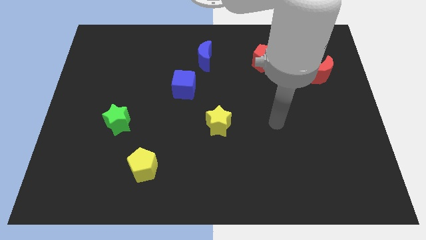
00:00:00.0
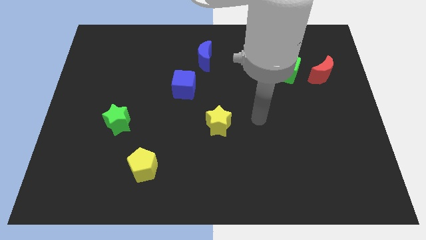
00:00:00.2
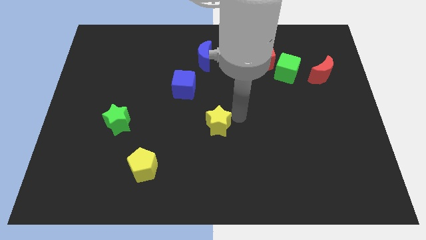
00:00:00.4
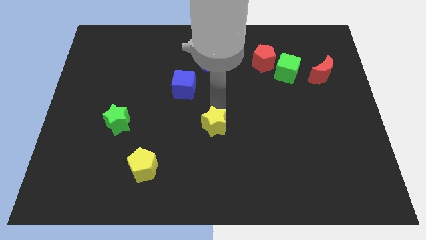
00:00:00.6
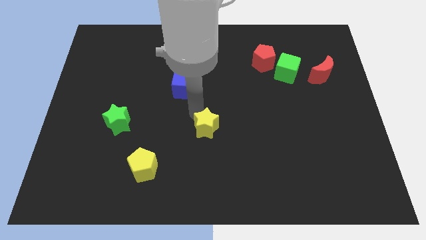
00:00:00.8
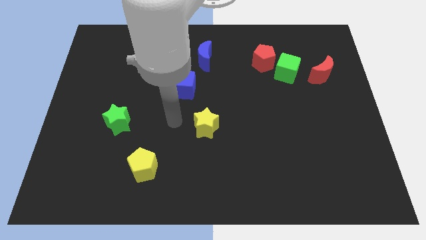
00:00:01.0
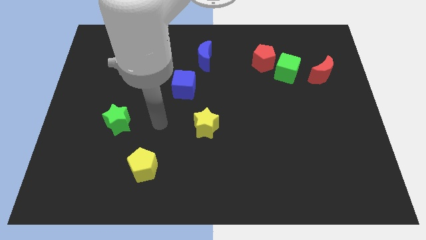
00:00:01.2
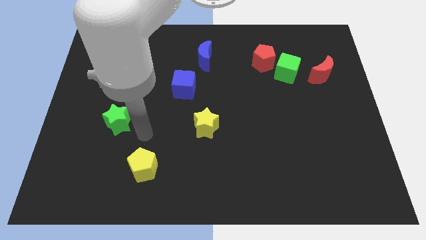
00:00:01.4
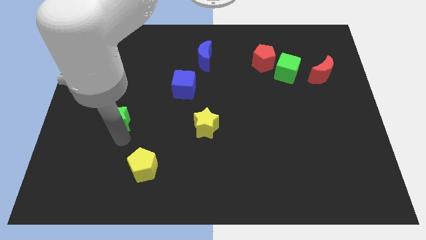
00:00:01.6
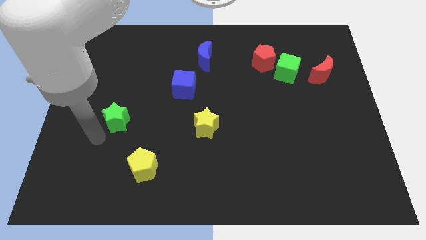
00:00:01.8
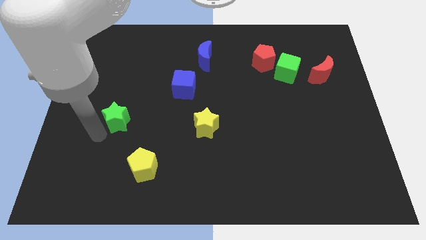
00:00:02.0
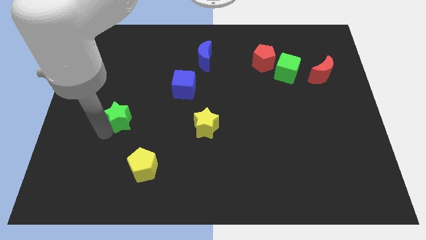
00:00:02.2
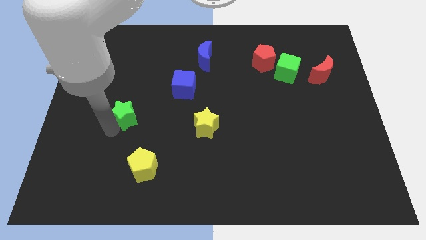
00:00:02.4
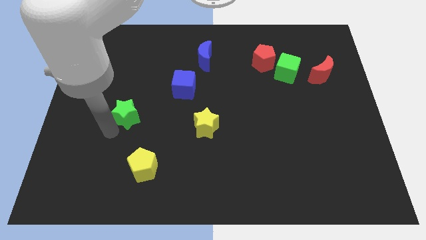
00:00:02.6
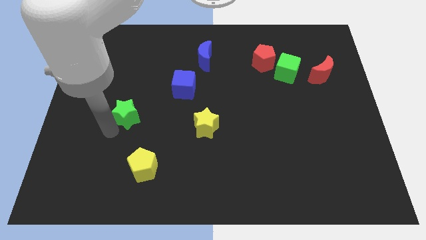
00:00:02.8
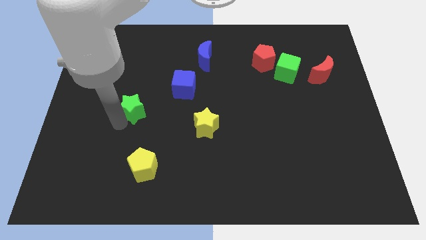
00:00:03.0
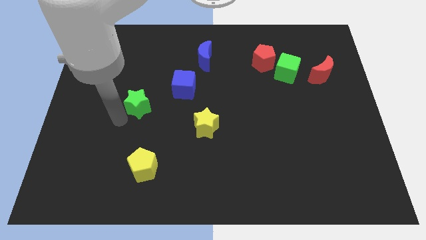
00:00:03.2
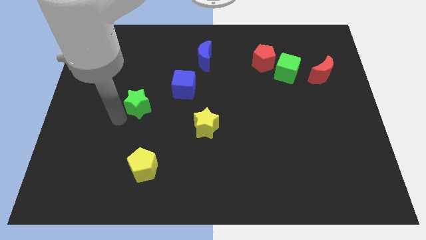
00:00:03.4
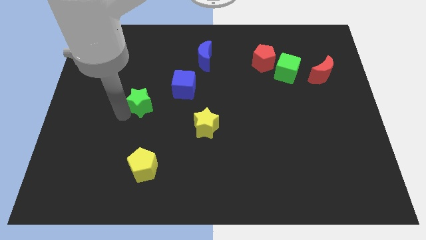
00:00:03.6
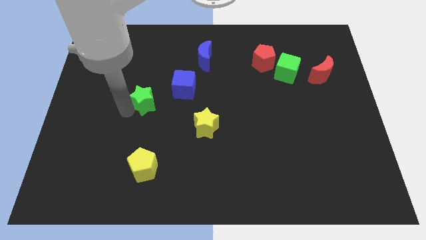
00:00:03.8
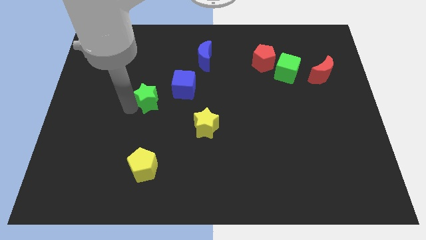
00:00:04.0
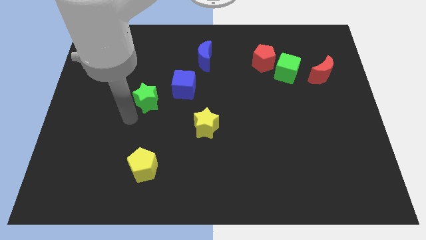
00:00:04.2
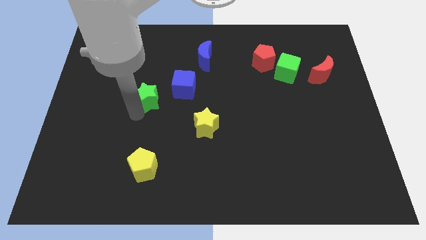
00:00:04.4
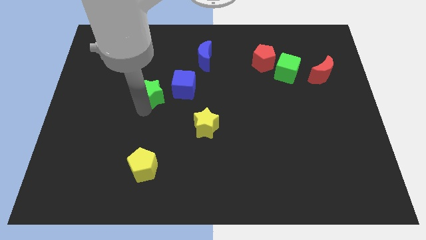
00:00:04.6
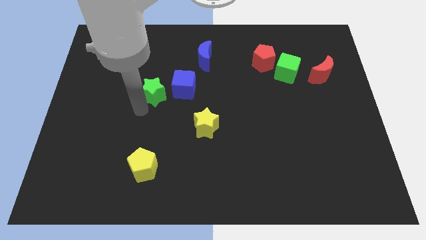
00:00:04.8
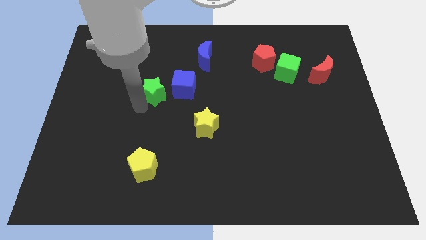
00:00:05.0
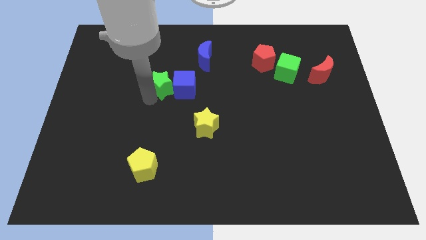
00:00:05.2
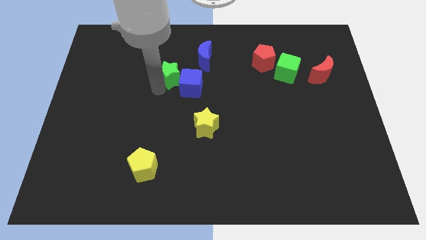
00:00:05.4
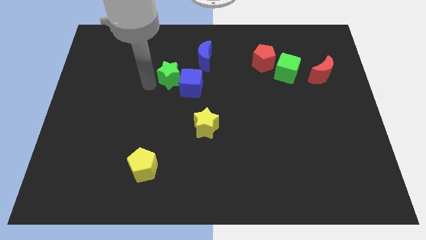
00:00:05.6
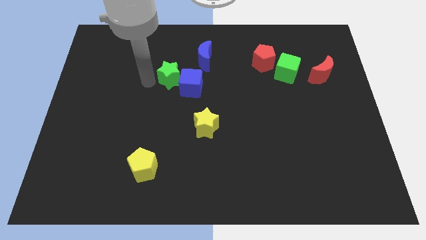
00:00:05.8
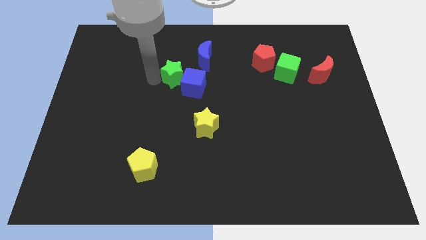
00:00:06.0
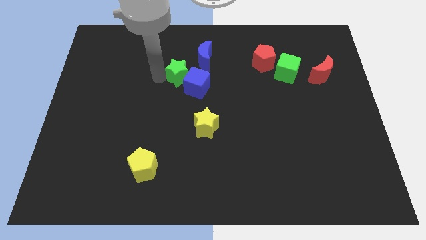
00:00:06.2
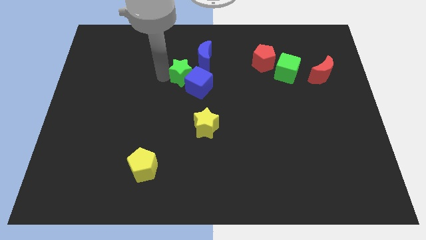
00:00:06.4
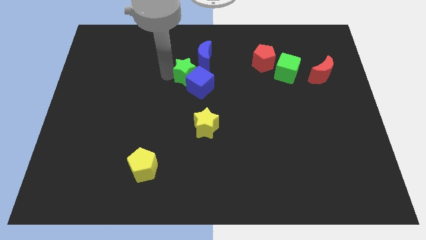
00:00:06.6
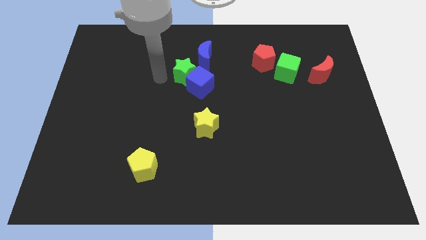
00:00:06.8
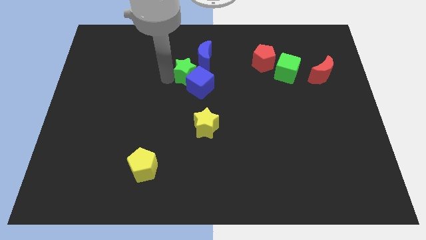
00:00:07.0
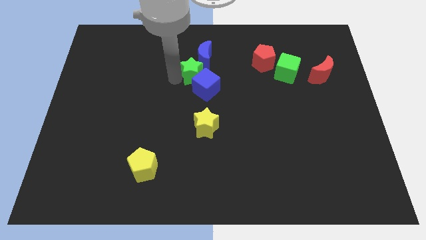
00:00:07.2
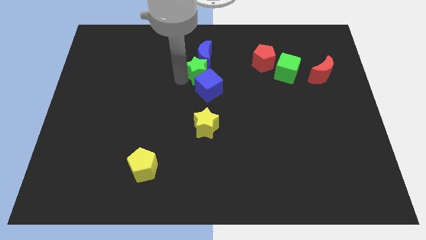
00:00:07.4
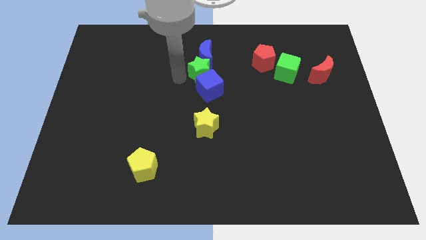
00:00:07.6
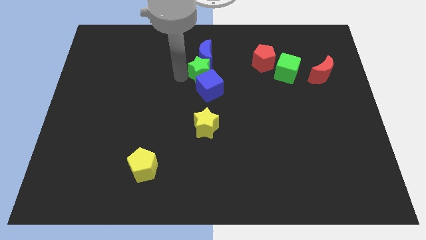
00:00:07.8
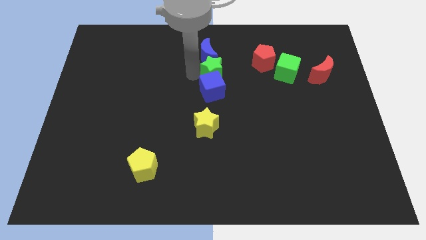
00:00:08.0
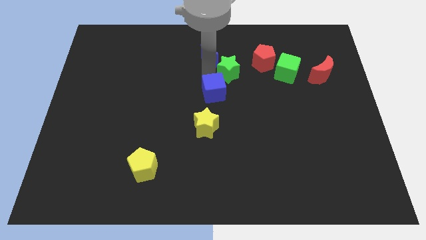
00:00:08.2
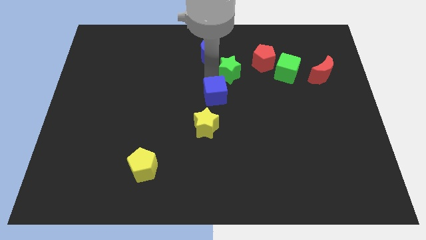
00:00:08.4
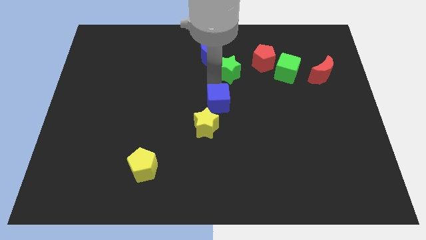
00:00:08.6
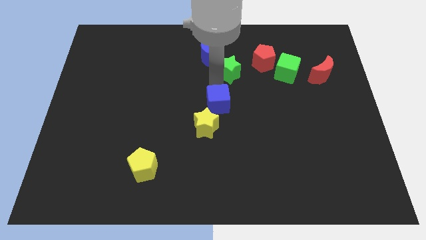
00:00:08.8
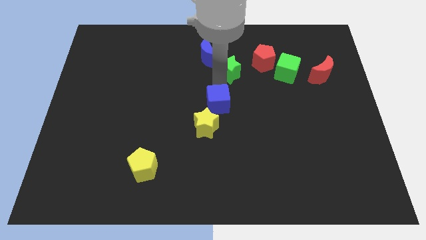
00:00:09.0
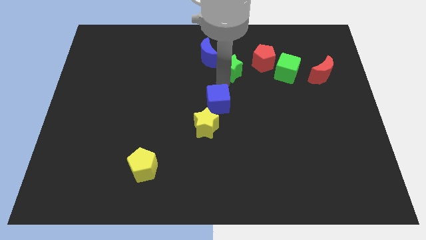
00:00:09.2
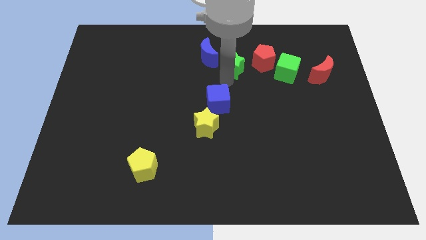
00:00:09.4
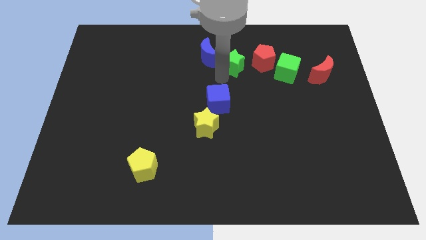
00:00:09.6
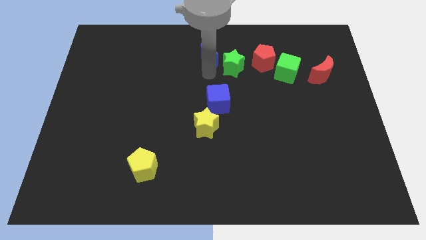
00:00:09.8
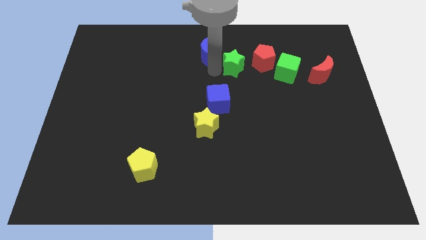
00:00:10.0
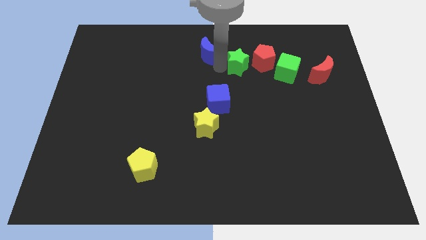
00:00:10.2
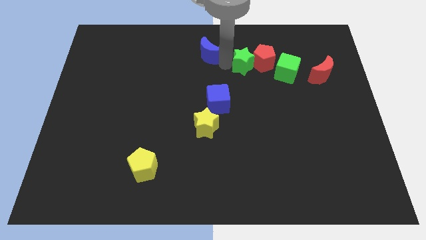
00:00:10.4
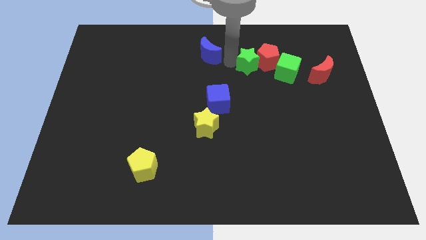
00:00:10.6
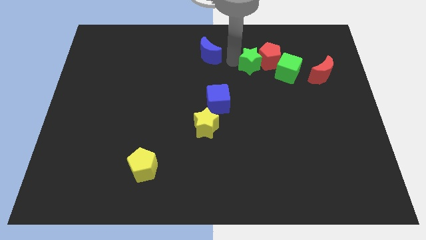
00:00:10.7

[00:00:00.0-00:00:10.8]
push the green star to the top left side of the green cube

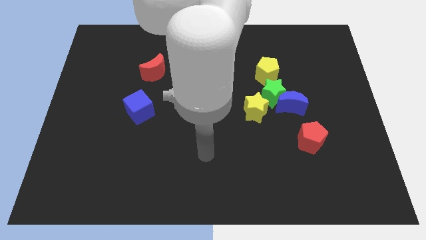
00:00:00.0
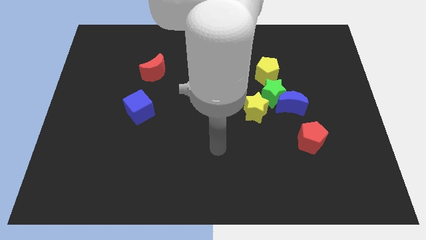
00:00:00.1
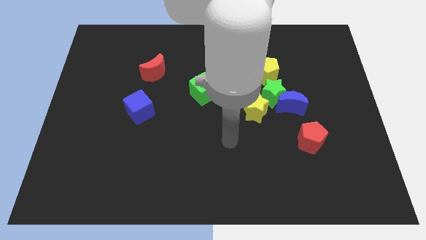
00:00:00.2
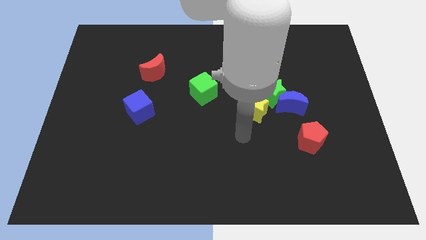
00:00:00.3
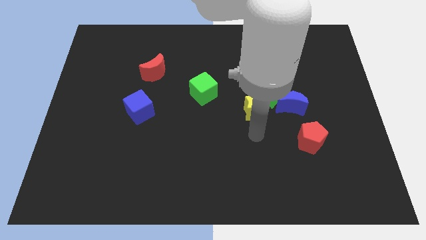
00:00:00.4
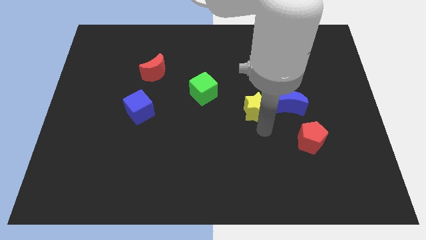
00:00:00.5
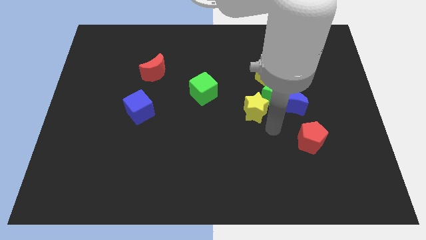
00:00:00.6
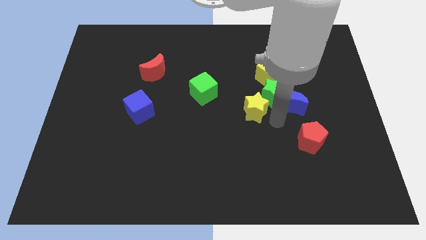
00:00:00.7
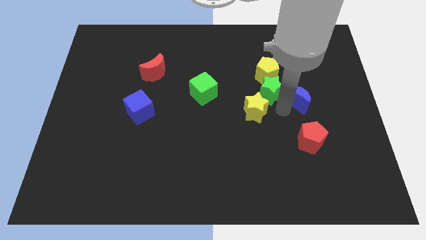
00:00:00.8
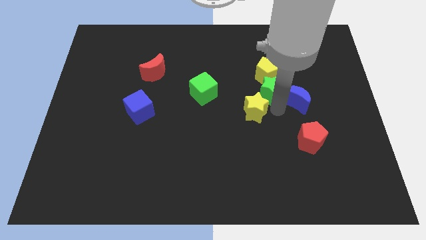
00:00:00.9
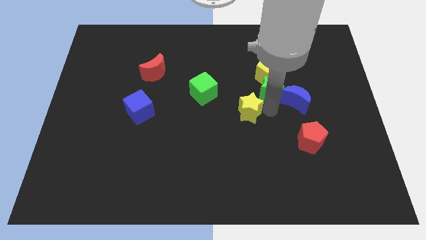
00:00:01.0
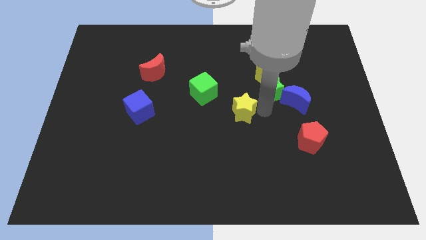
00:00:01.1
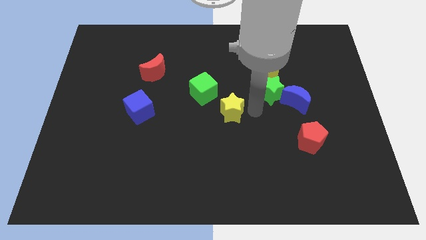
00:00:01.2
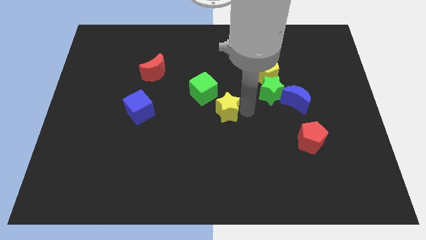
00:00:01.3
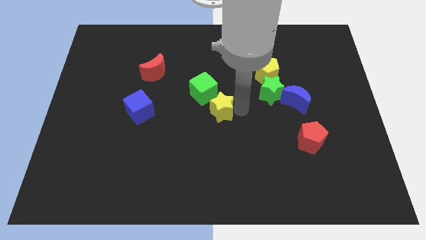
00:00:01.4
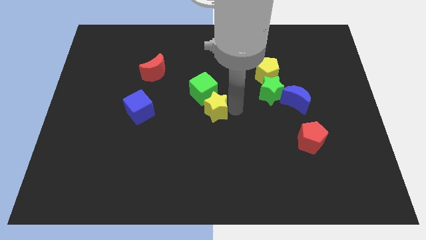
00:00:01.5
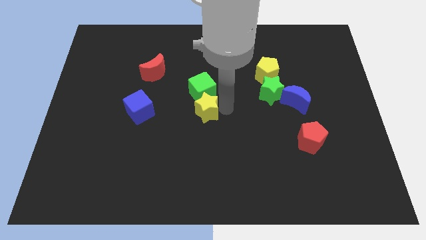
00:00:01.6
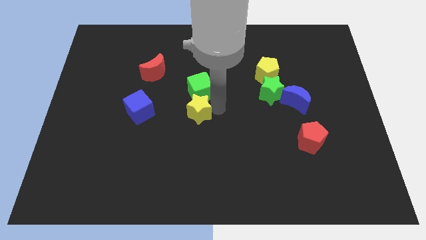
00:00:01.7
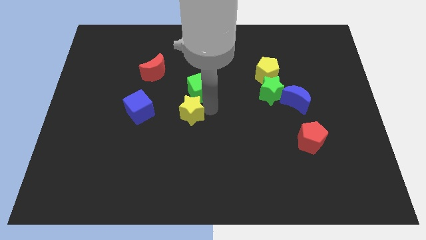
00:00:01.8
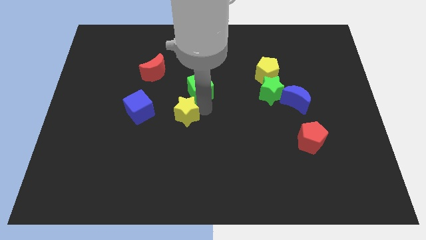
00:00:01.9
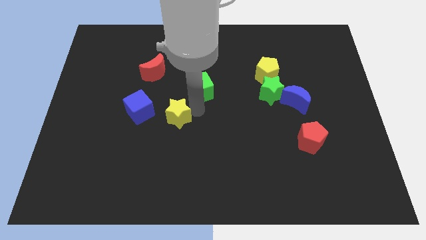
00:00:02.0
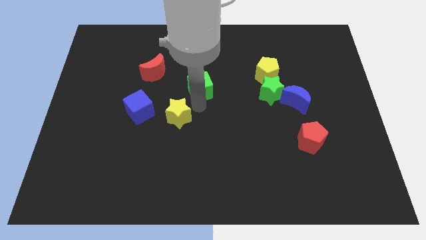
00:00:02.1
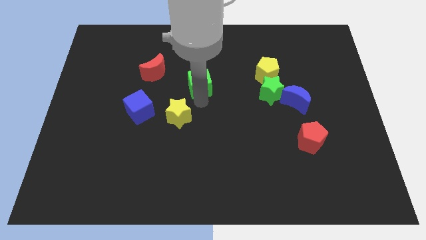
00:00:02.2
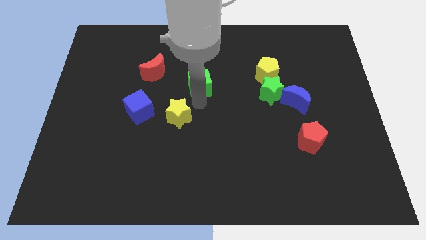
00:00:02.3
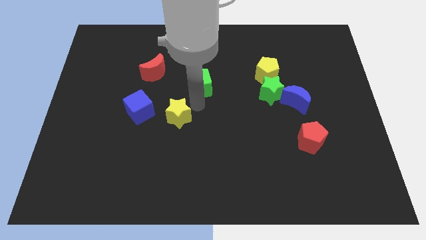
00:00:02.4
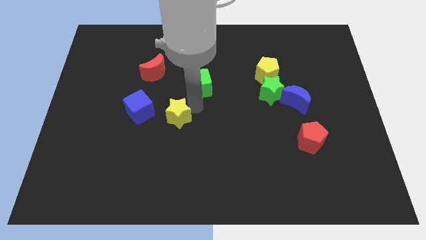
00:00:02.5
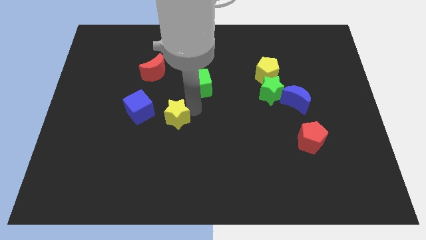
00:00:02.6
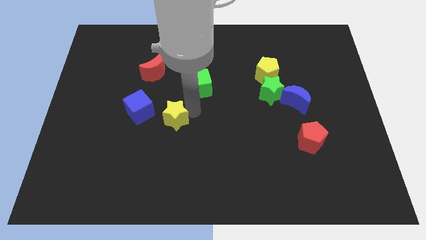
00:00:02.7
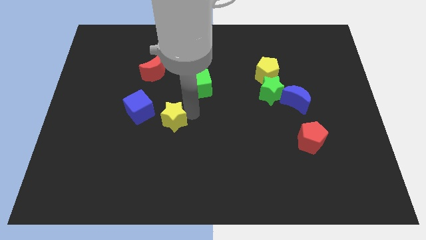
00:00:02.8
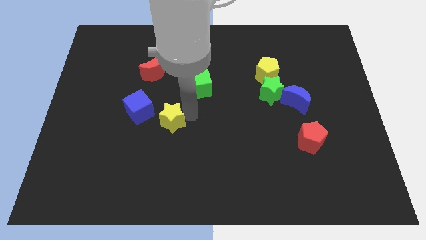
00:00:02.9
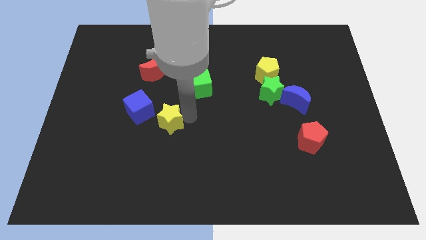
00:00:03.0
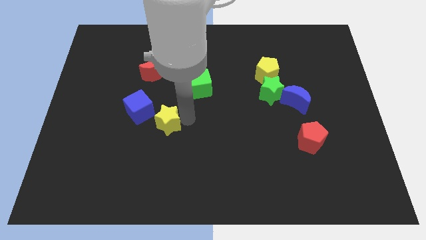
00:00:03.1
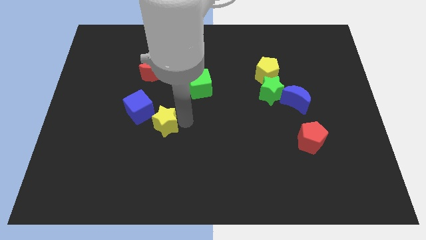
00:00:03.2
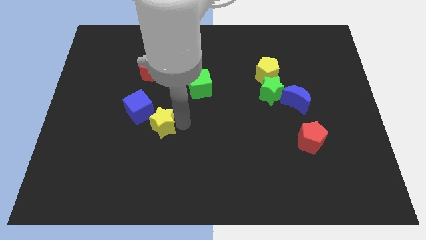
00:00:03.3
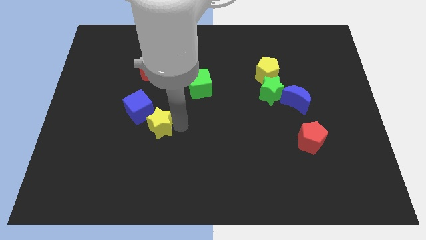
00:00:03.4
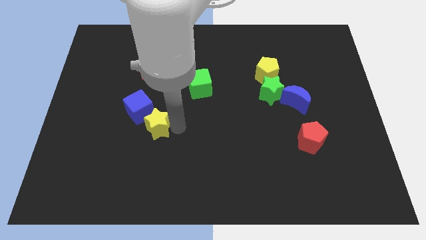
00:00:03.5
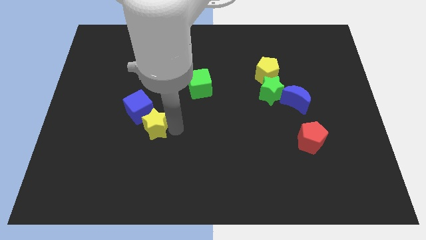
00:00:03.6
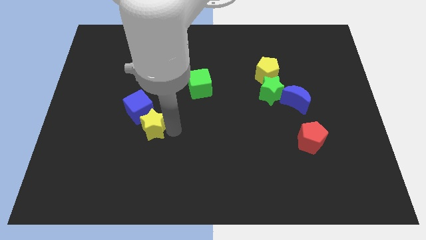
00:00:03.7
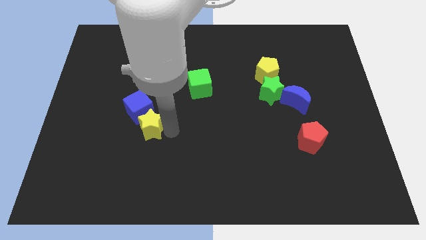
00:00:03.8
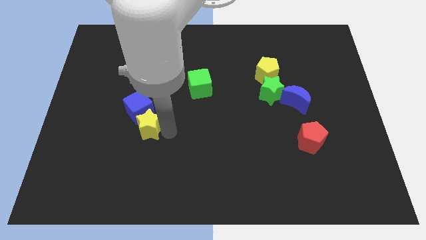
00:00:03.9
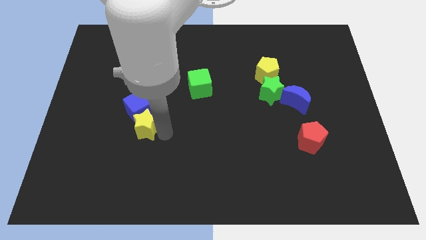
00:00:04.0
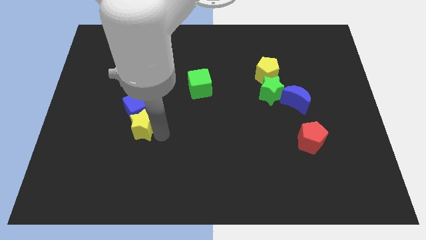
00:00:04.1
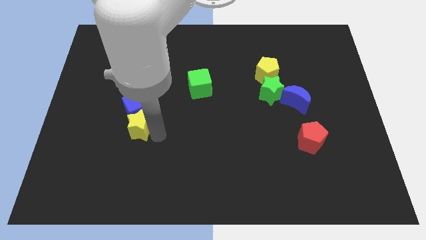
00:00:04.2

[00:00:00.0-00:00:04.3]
move the yellow star diagonally down and to the left of the blue cube
